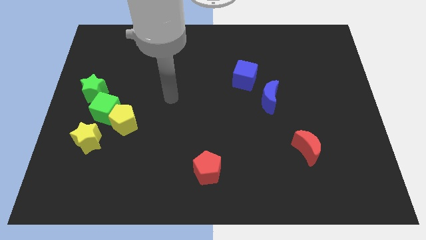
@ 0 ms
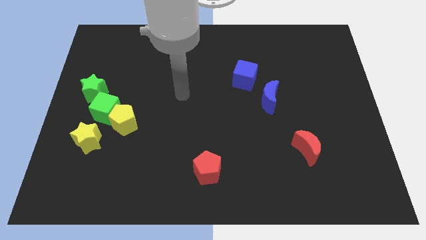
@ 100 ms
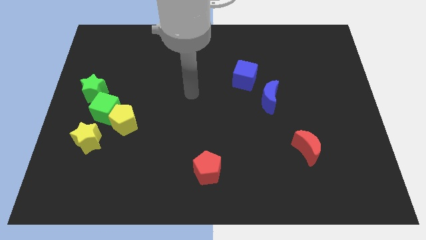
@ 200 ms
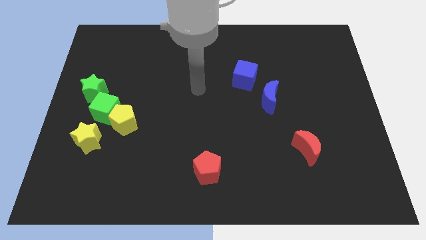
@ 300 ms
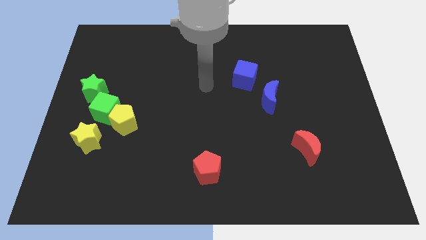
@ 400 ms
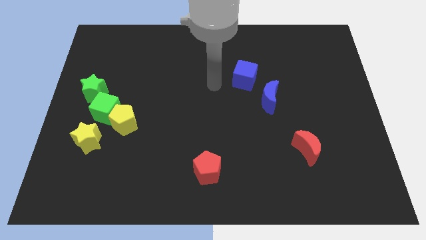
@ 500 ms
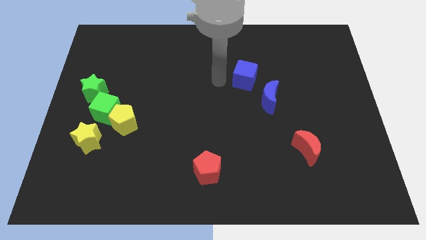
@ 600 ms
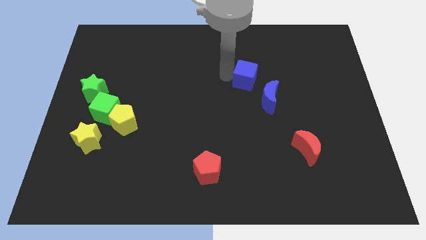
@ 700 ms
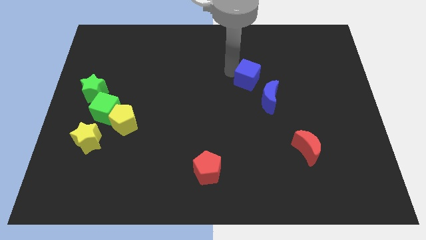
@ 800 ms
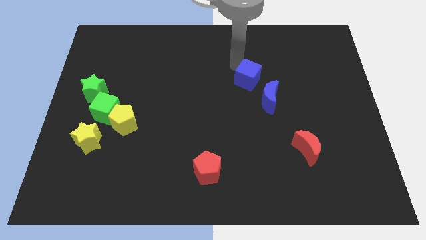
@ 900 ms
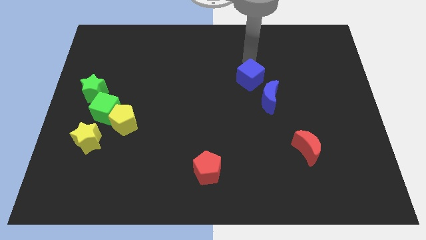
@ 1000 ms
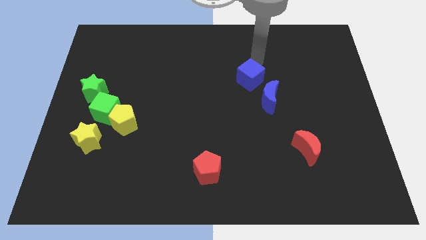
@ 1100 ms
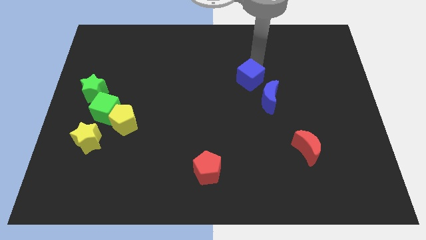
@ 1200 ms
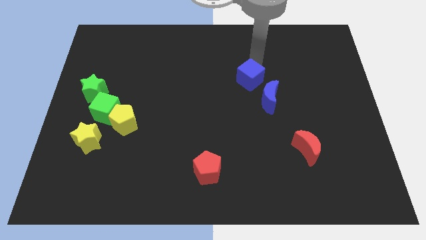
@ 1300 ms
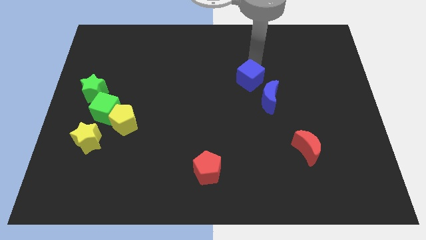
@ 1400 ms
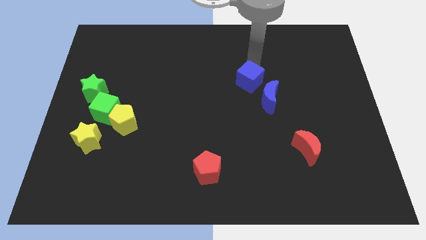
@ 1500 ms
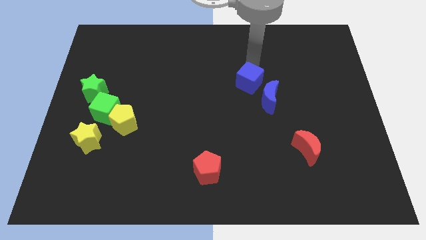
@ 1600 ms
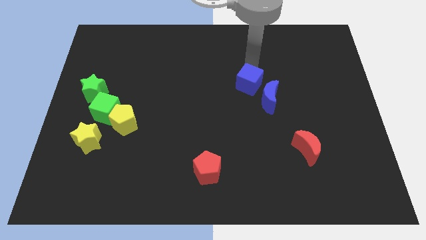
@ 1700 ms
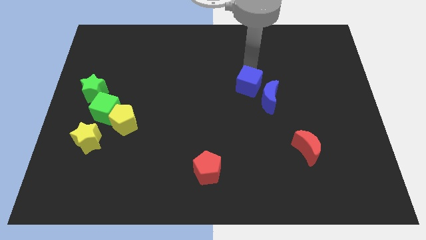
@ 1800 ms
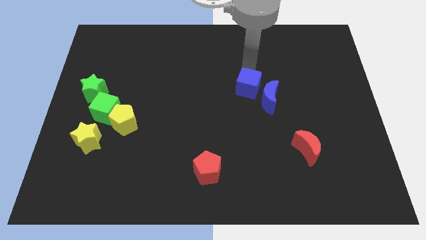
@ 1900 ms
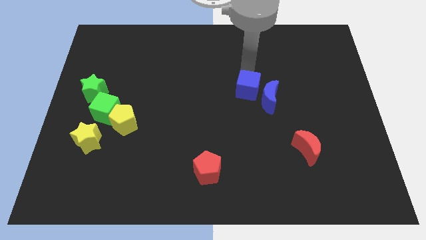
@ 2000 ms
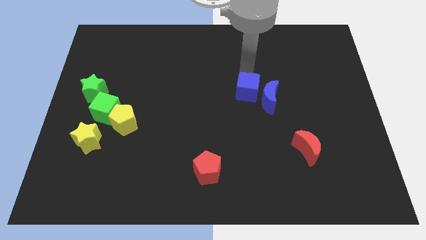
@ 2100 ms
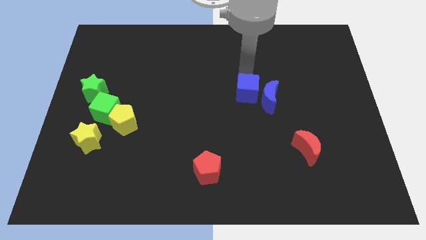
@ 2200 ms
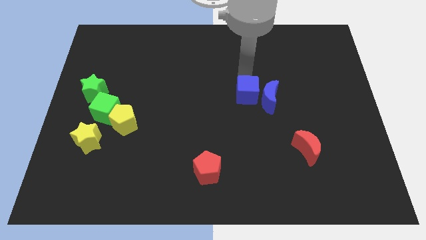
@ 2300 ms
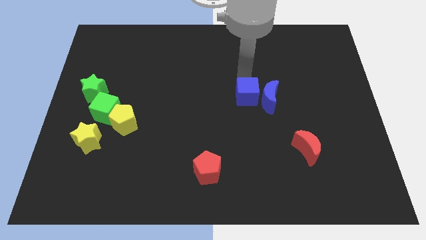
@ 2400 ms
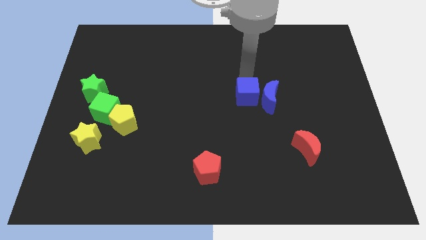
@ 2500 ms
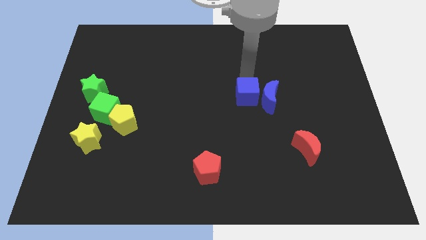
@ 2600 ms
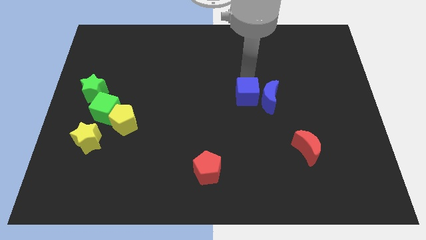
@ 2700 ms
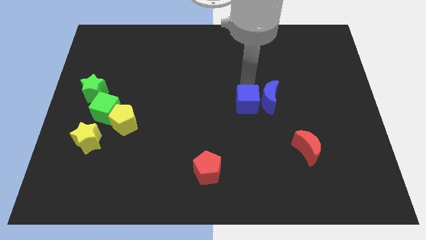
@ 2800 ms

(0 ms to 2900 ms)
slightly move the blue cube downwards

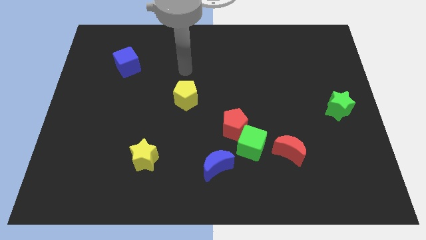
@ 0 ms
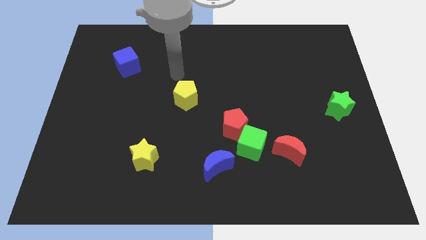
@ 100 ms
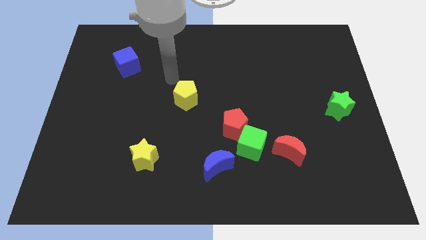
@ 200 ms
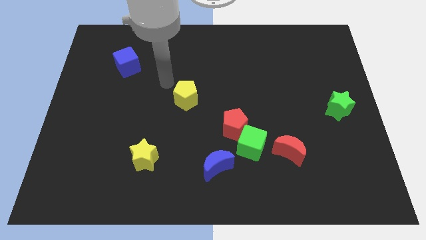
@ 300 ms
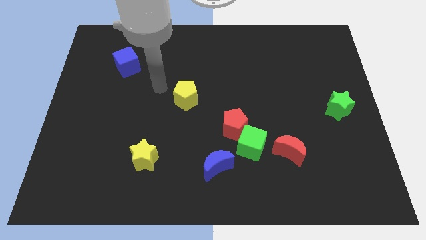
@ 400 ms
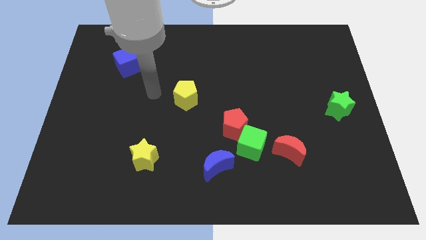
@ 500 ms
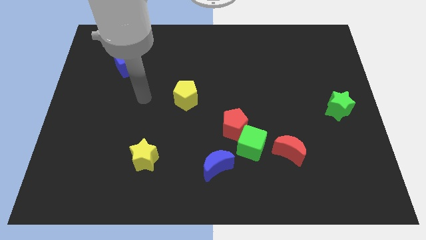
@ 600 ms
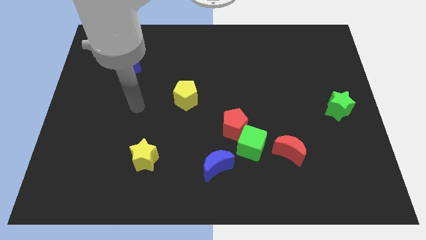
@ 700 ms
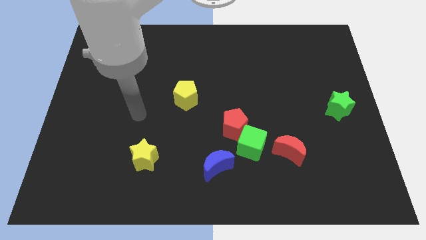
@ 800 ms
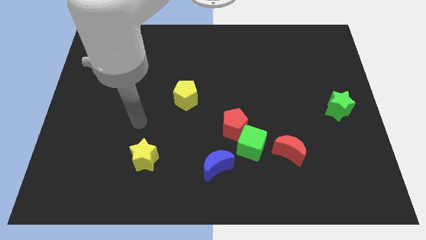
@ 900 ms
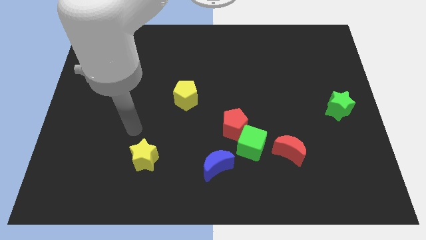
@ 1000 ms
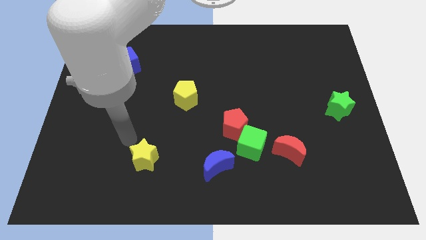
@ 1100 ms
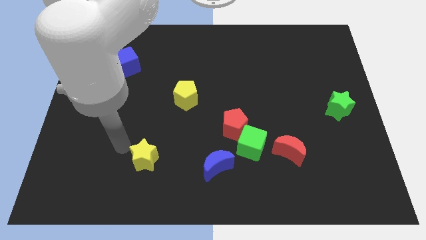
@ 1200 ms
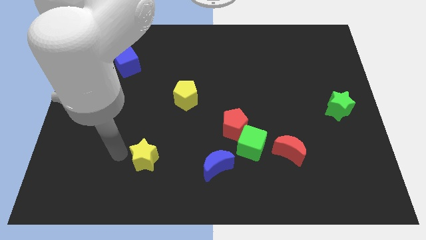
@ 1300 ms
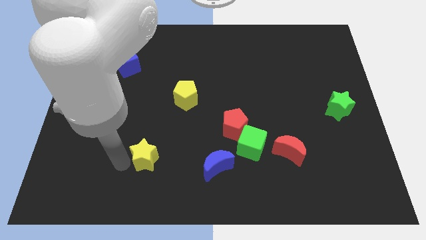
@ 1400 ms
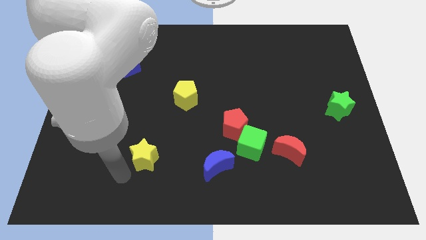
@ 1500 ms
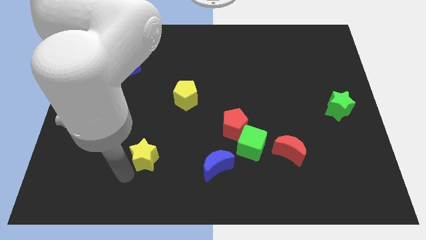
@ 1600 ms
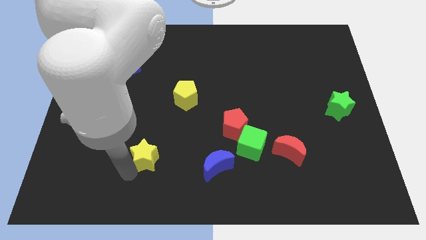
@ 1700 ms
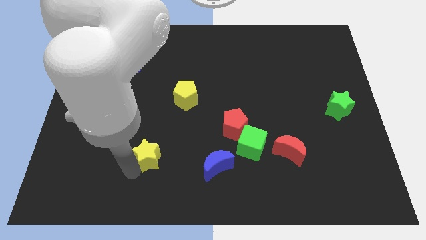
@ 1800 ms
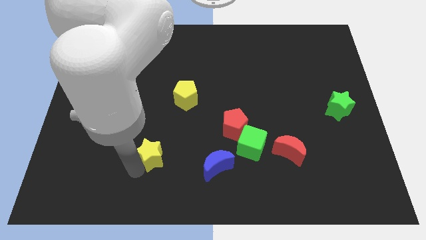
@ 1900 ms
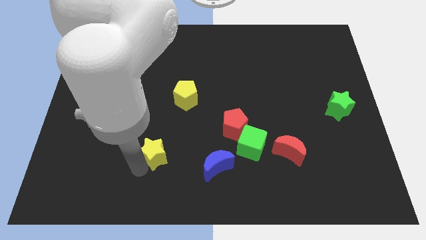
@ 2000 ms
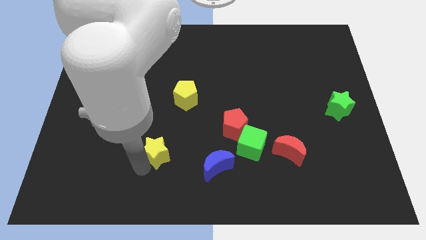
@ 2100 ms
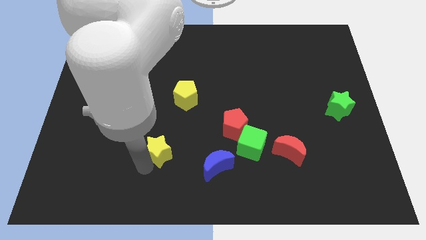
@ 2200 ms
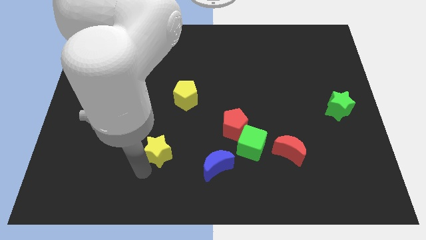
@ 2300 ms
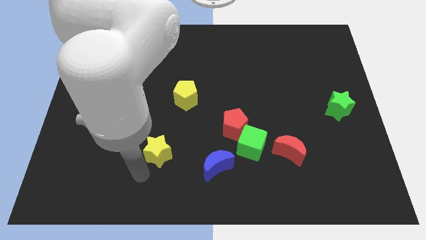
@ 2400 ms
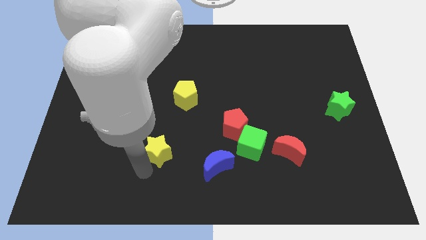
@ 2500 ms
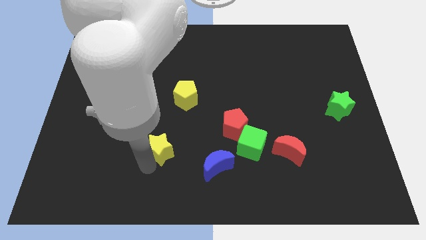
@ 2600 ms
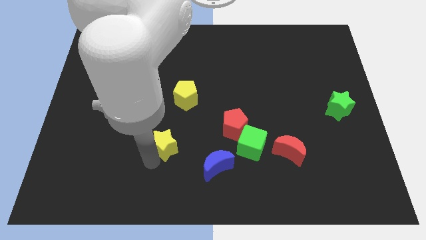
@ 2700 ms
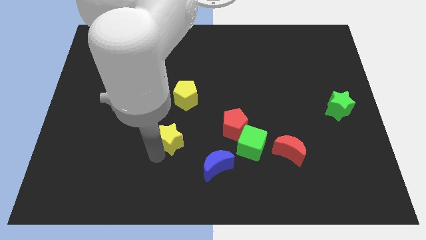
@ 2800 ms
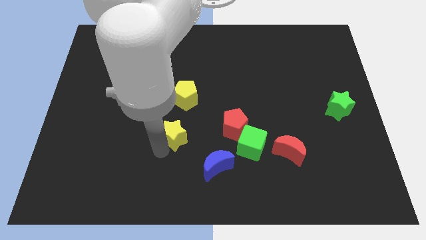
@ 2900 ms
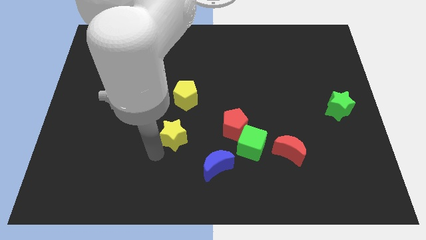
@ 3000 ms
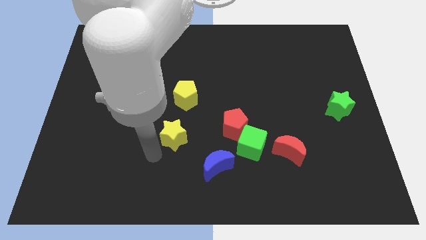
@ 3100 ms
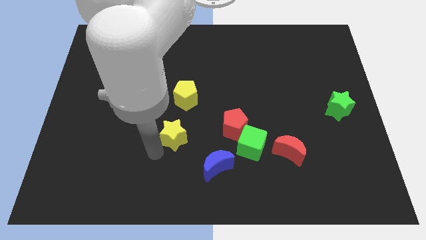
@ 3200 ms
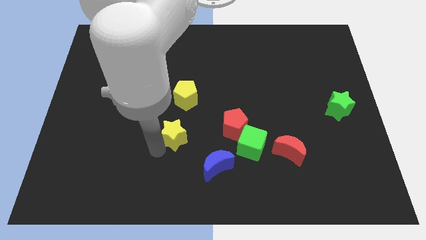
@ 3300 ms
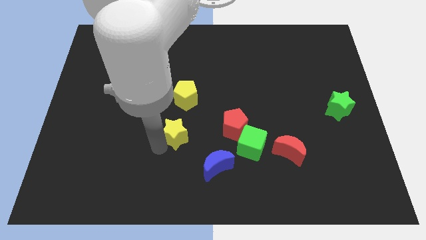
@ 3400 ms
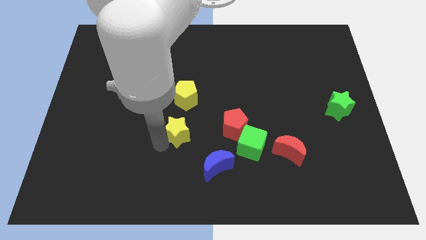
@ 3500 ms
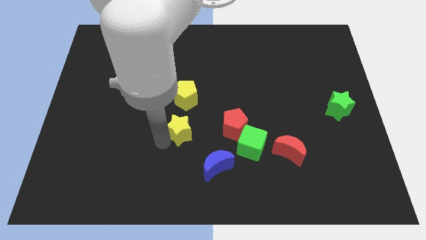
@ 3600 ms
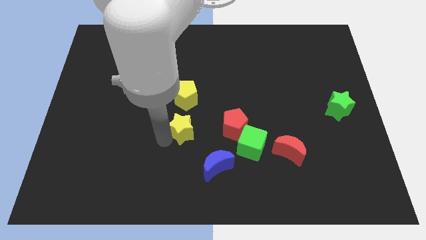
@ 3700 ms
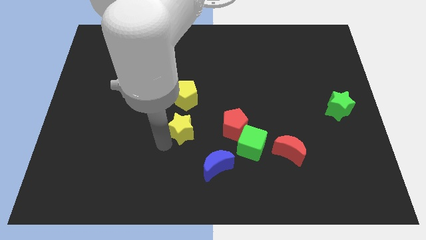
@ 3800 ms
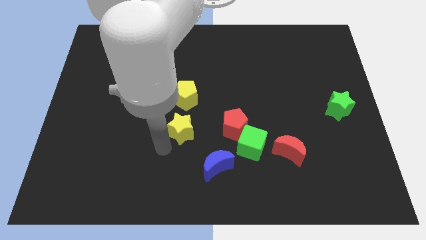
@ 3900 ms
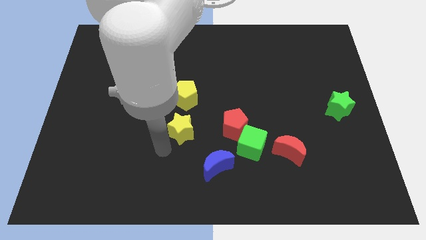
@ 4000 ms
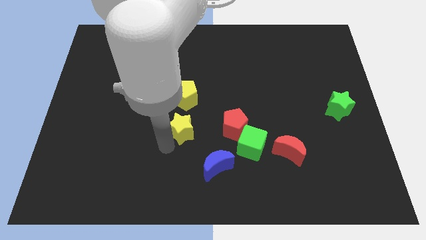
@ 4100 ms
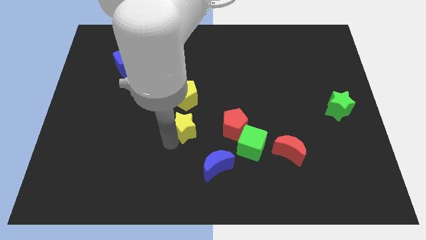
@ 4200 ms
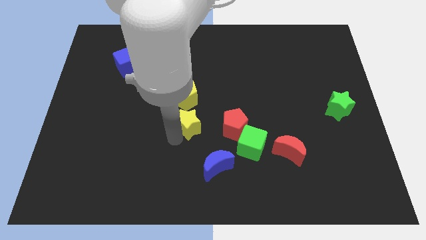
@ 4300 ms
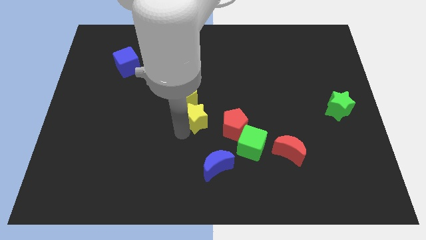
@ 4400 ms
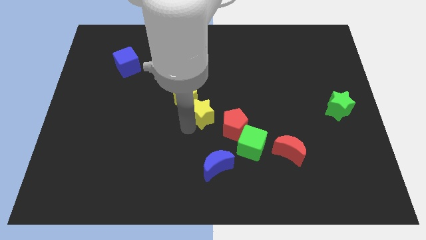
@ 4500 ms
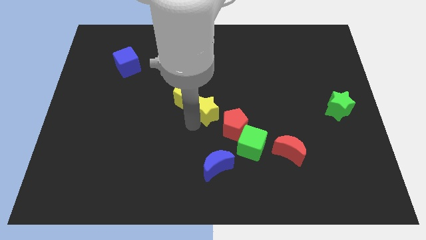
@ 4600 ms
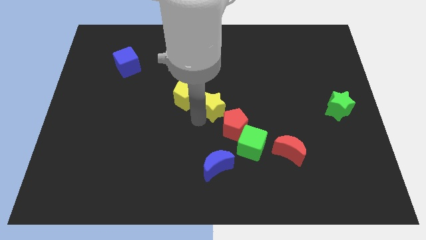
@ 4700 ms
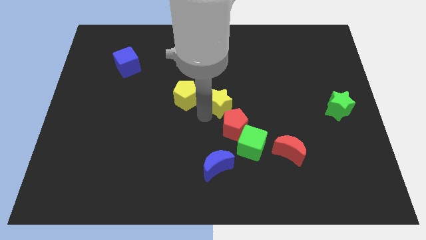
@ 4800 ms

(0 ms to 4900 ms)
slide the yellow star up and then to the right

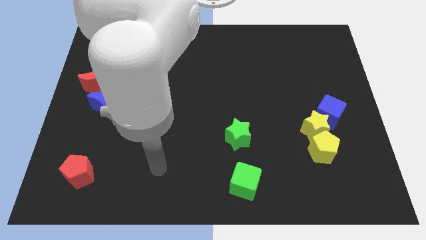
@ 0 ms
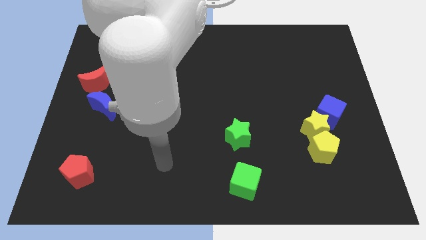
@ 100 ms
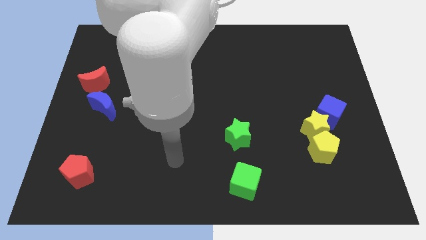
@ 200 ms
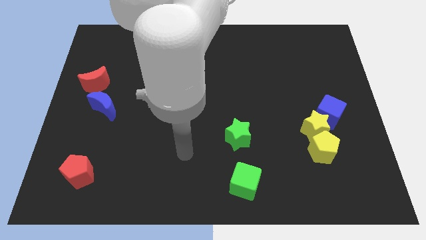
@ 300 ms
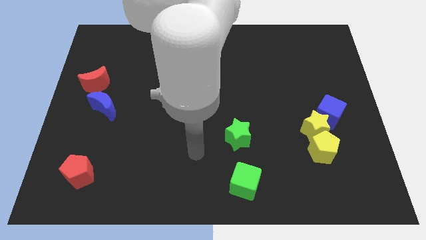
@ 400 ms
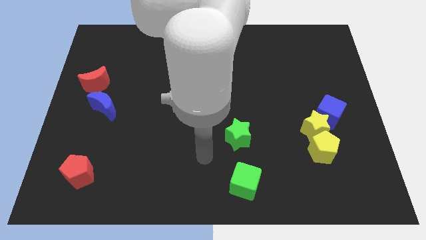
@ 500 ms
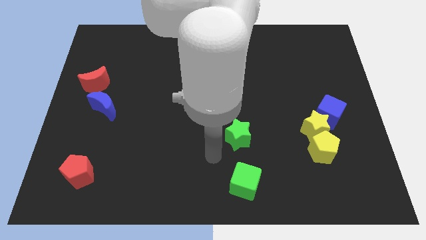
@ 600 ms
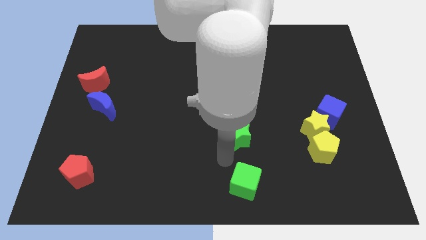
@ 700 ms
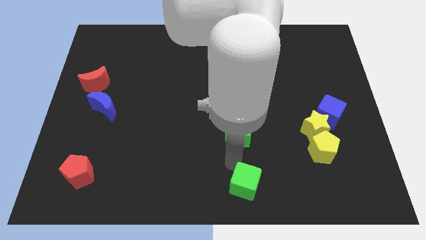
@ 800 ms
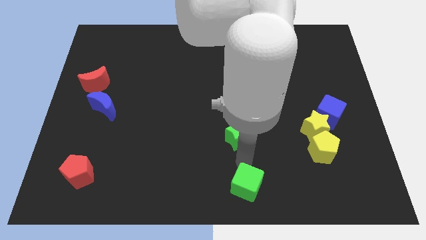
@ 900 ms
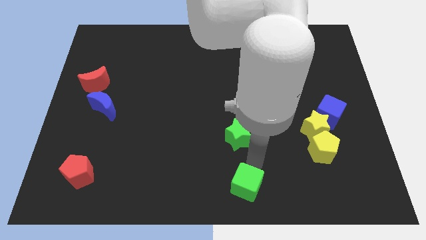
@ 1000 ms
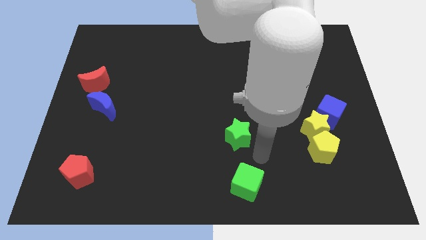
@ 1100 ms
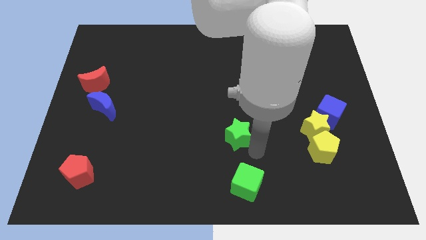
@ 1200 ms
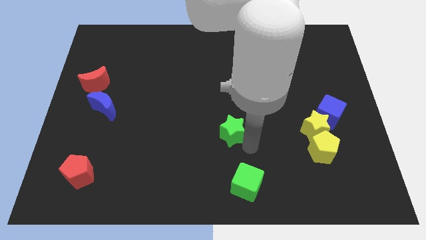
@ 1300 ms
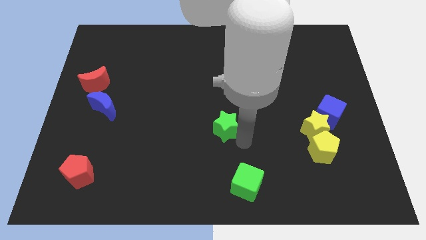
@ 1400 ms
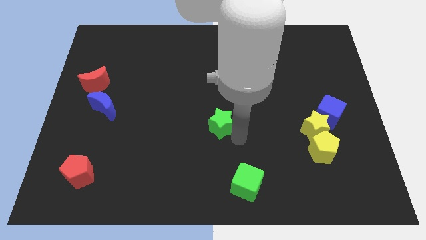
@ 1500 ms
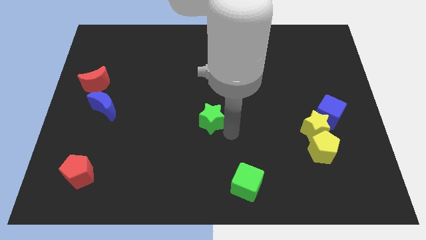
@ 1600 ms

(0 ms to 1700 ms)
slightly move the green star diagonally upwards and to the left
